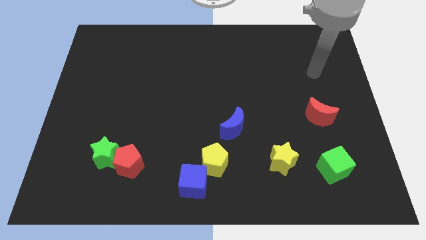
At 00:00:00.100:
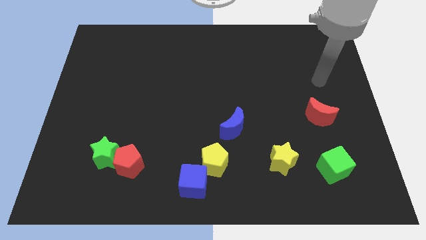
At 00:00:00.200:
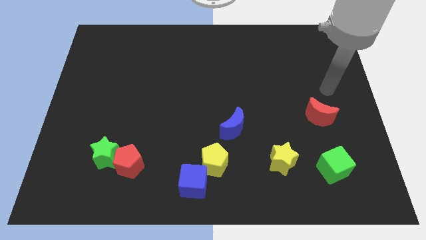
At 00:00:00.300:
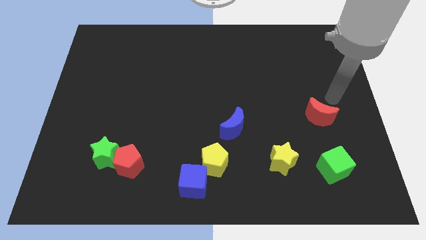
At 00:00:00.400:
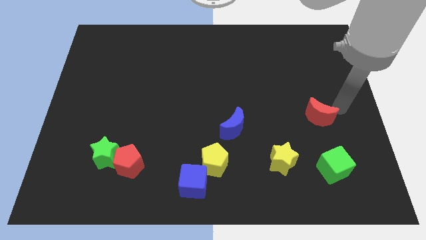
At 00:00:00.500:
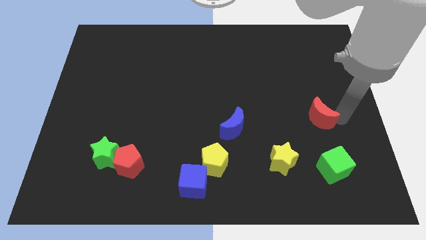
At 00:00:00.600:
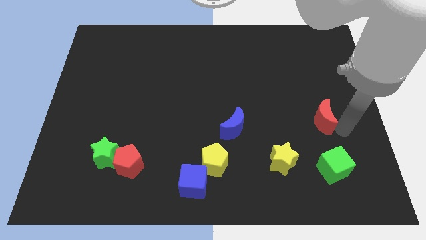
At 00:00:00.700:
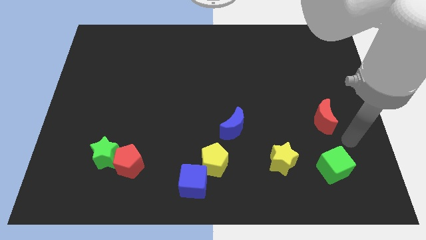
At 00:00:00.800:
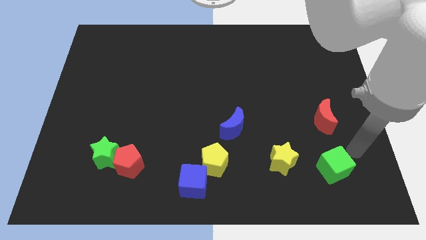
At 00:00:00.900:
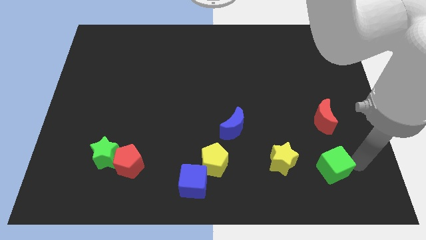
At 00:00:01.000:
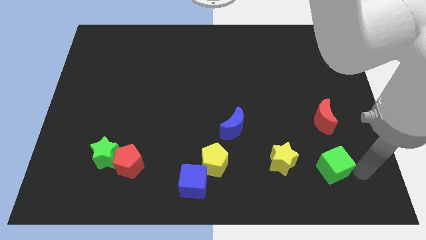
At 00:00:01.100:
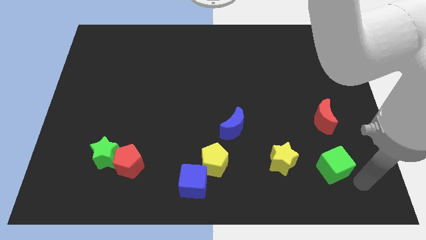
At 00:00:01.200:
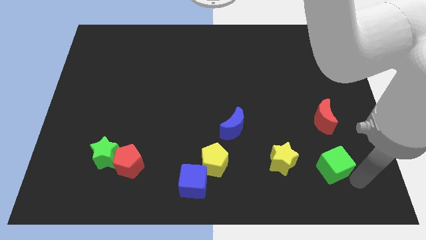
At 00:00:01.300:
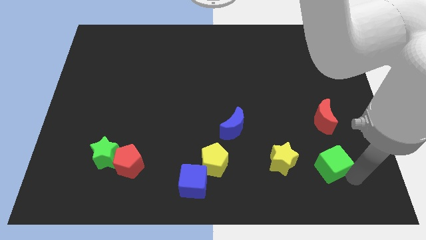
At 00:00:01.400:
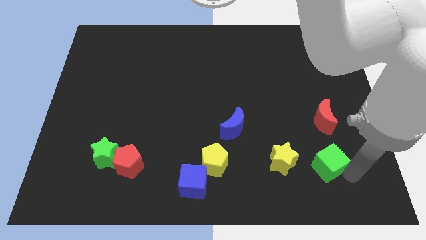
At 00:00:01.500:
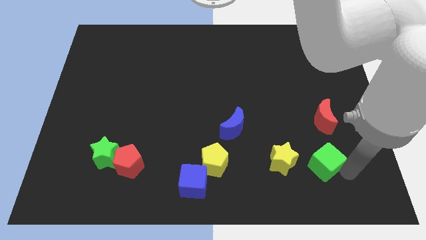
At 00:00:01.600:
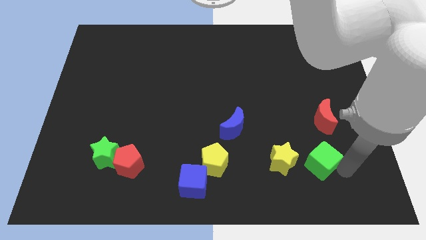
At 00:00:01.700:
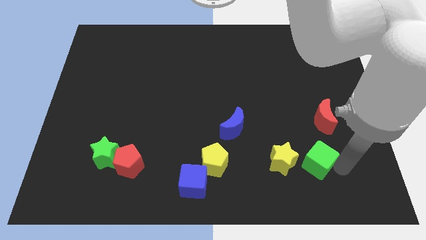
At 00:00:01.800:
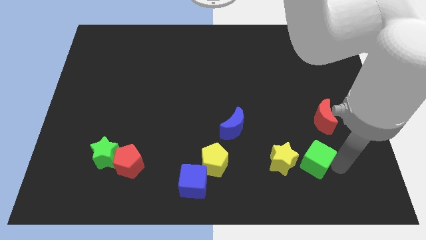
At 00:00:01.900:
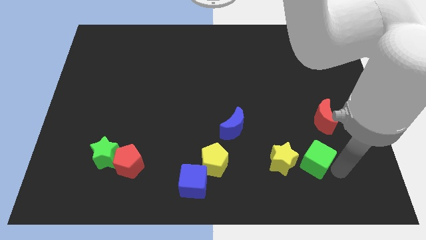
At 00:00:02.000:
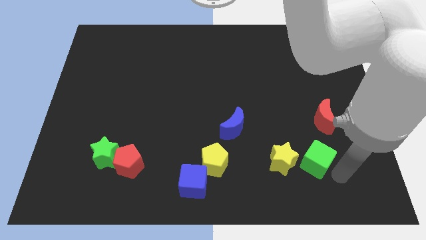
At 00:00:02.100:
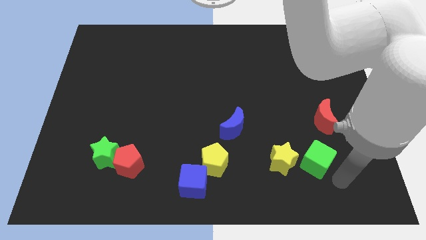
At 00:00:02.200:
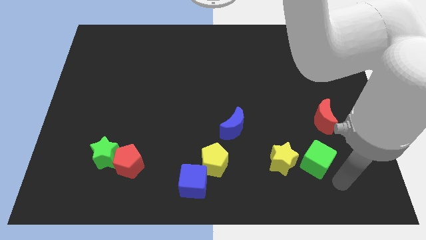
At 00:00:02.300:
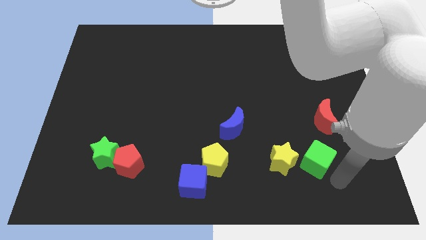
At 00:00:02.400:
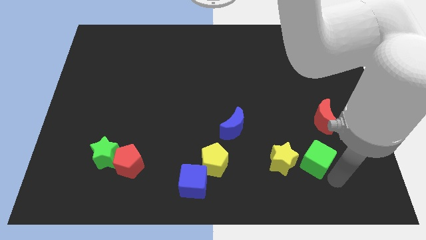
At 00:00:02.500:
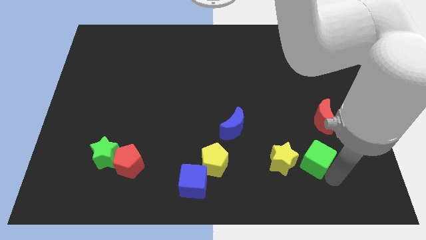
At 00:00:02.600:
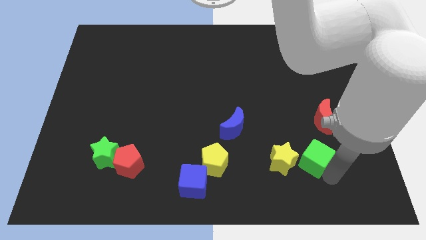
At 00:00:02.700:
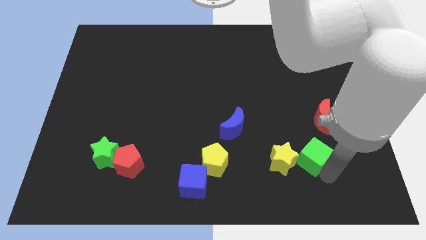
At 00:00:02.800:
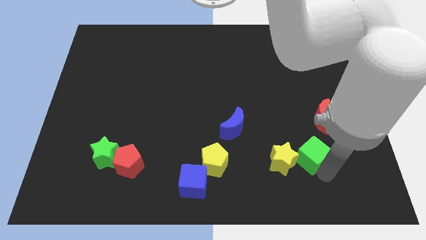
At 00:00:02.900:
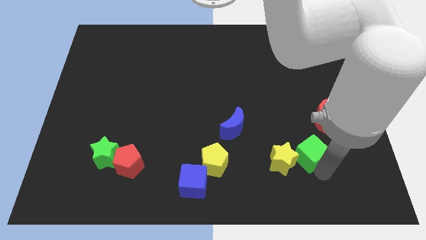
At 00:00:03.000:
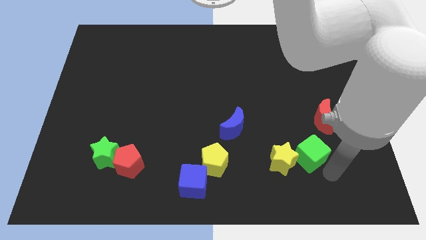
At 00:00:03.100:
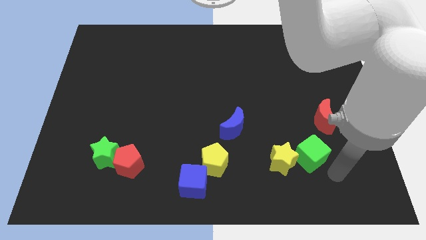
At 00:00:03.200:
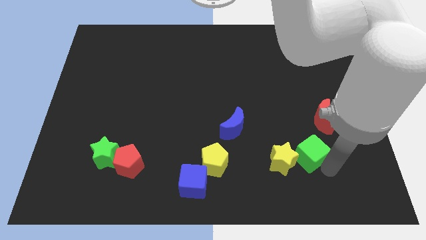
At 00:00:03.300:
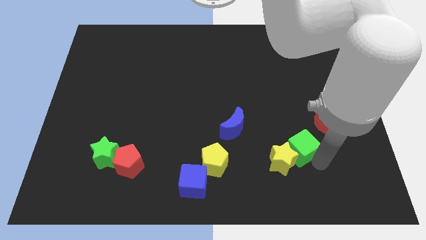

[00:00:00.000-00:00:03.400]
move the green cube slightly diagonally upwards and left

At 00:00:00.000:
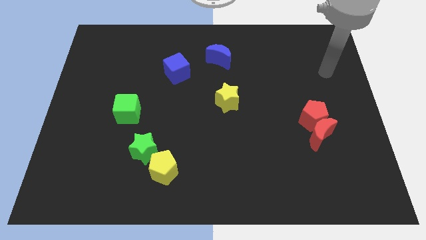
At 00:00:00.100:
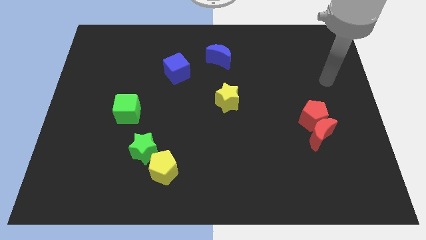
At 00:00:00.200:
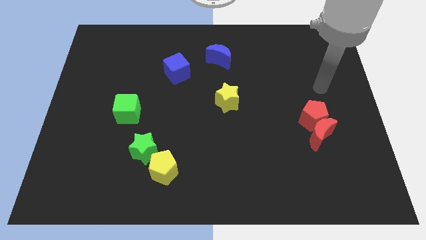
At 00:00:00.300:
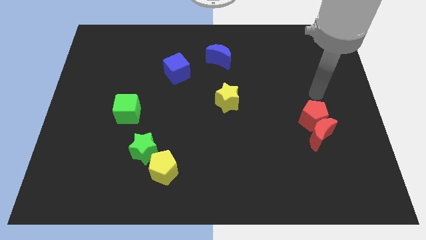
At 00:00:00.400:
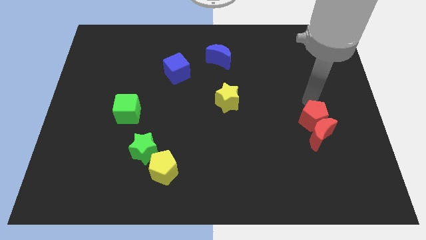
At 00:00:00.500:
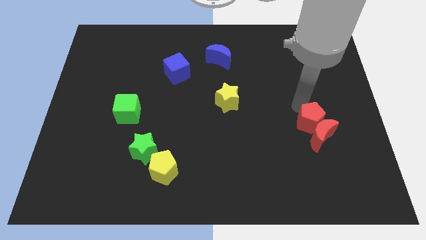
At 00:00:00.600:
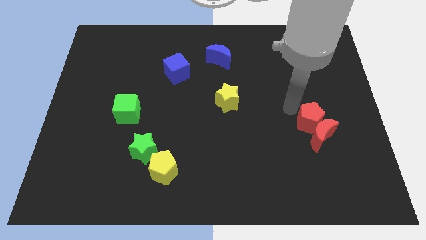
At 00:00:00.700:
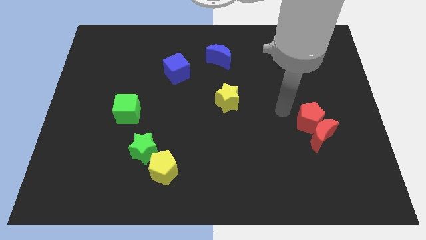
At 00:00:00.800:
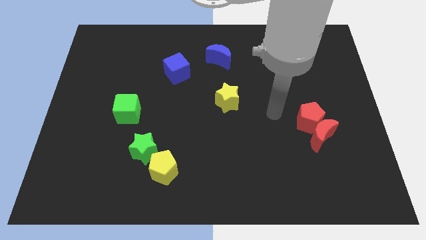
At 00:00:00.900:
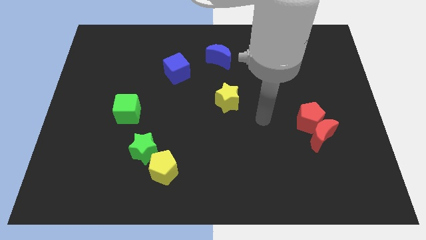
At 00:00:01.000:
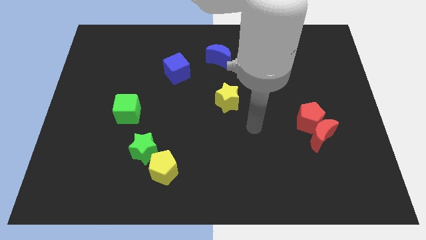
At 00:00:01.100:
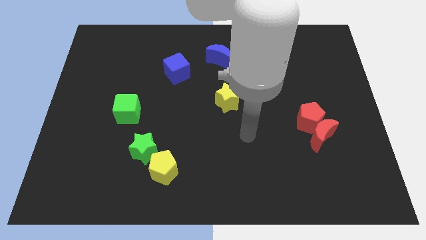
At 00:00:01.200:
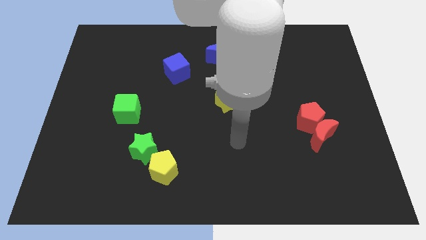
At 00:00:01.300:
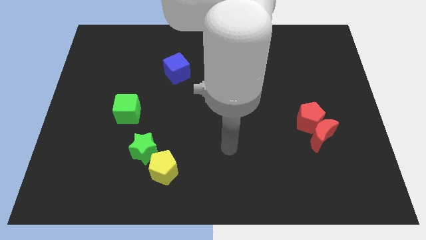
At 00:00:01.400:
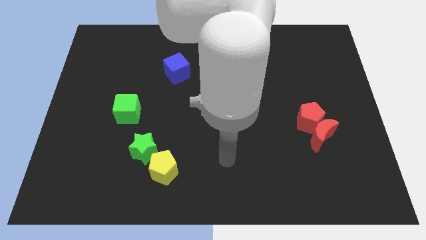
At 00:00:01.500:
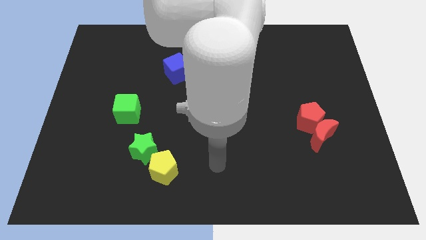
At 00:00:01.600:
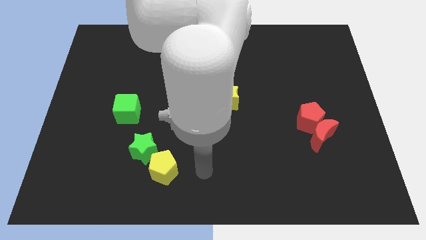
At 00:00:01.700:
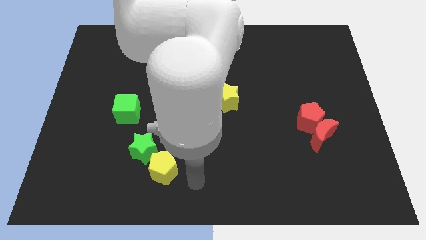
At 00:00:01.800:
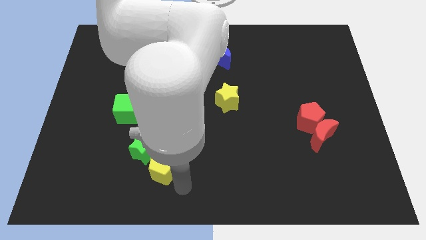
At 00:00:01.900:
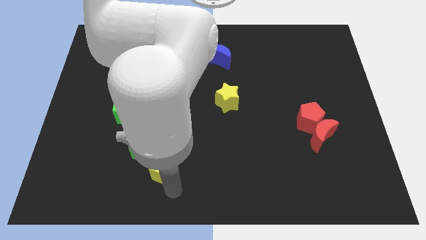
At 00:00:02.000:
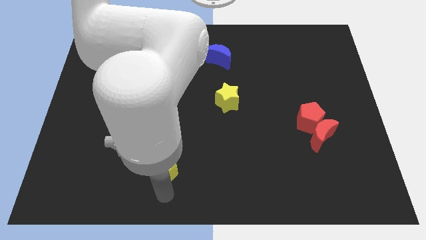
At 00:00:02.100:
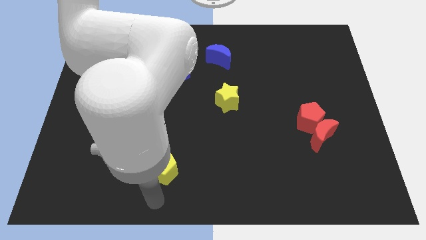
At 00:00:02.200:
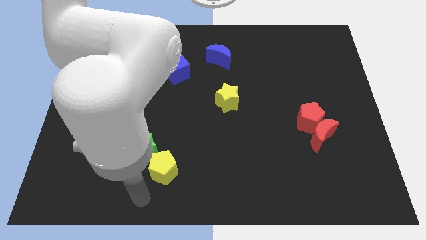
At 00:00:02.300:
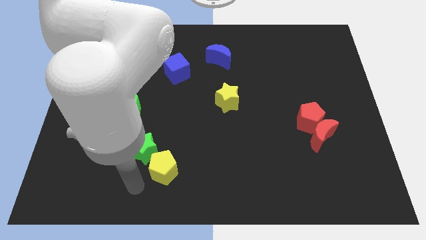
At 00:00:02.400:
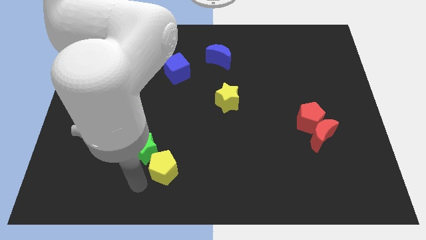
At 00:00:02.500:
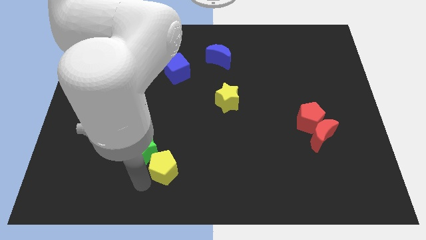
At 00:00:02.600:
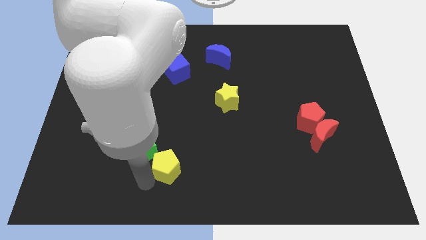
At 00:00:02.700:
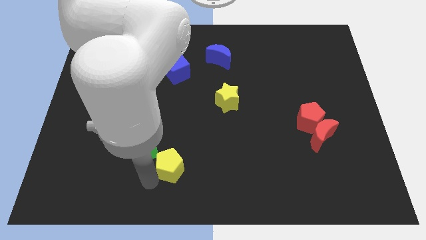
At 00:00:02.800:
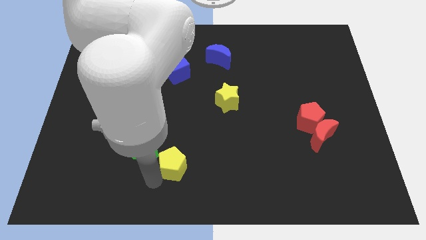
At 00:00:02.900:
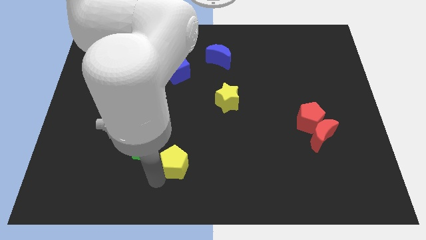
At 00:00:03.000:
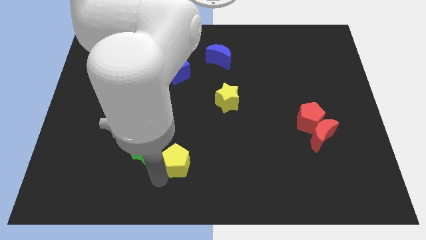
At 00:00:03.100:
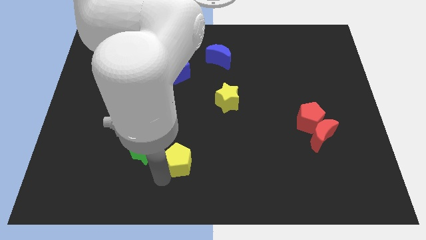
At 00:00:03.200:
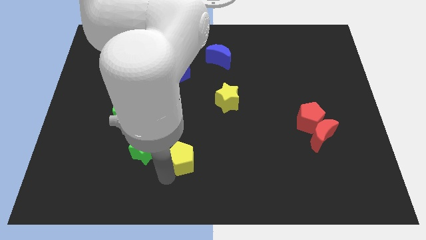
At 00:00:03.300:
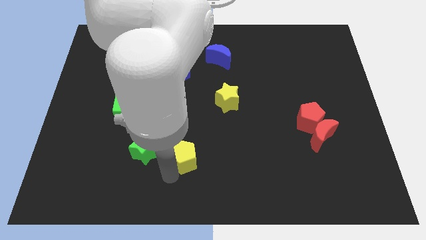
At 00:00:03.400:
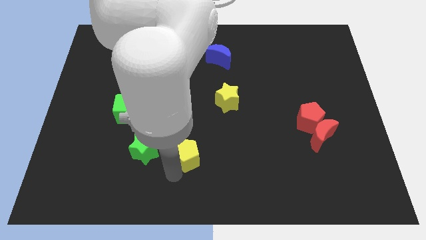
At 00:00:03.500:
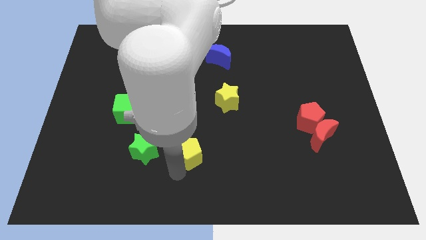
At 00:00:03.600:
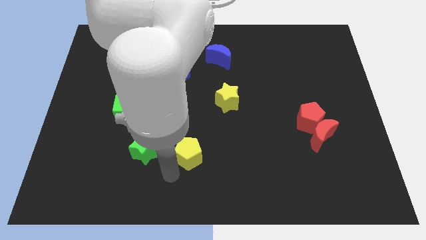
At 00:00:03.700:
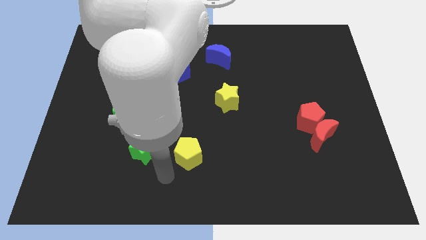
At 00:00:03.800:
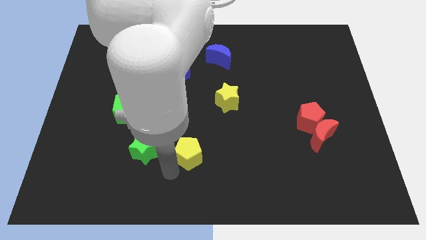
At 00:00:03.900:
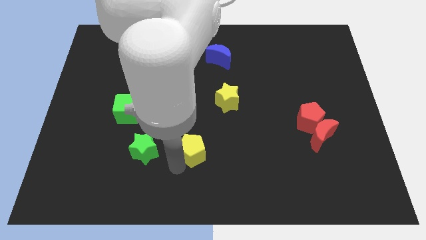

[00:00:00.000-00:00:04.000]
move the yellow pentagon a bit upwards and then to the right

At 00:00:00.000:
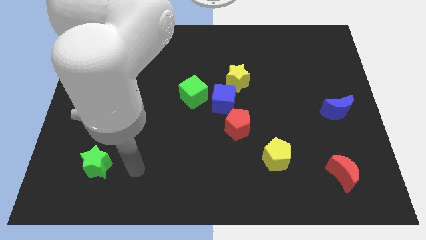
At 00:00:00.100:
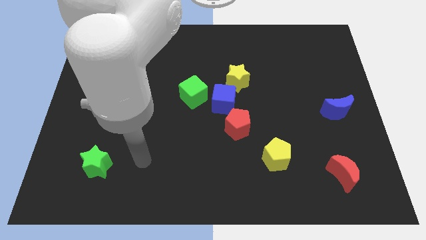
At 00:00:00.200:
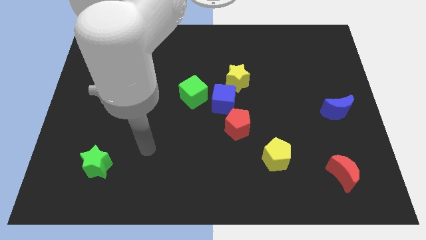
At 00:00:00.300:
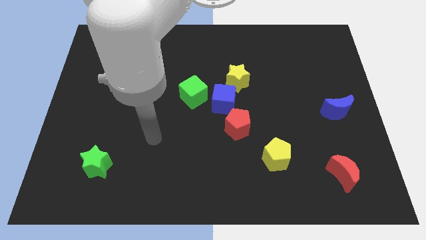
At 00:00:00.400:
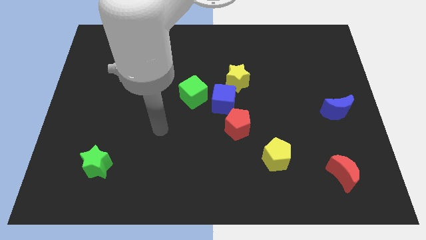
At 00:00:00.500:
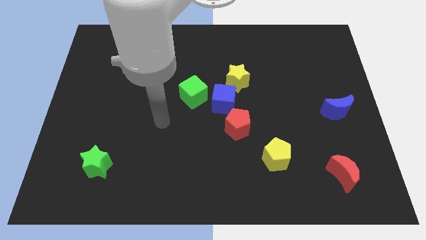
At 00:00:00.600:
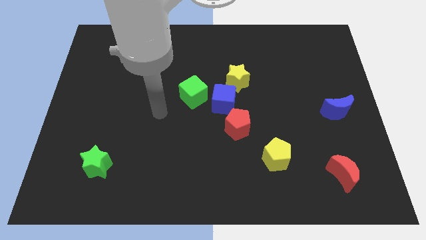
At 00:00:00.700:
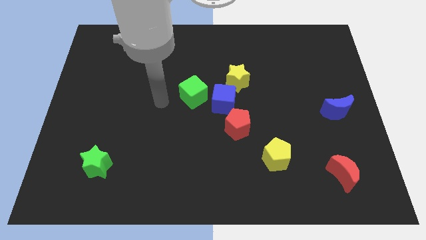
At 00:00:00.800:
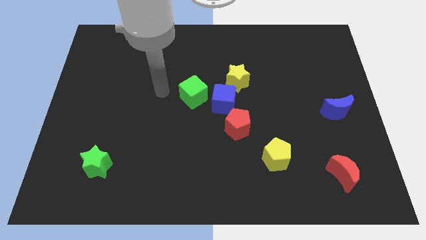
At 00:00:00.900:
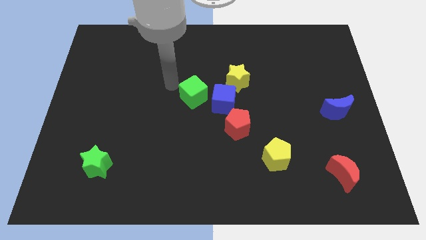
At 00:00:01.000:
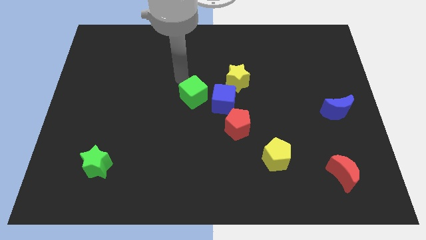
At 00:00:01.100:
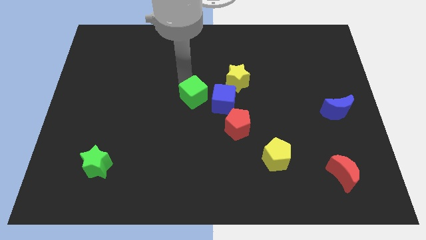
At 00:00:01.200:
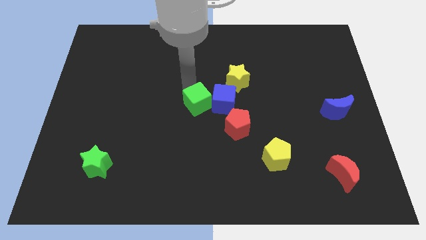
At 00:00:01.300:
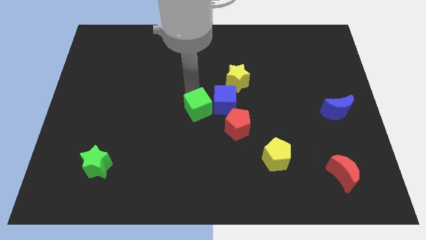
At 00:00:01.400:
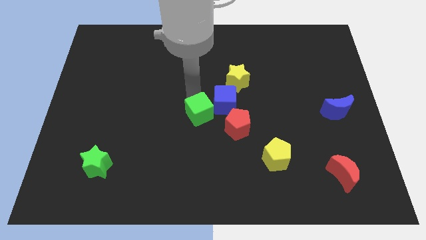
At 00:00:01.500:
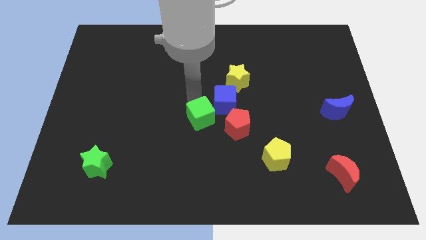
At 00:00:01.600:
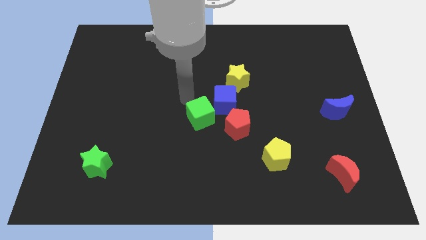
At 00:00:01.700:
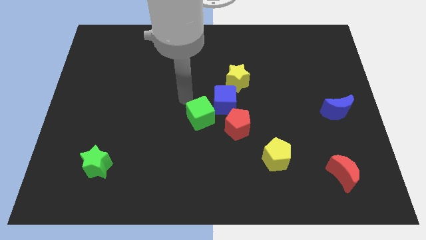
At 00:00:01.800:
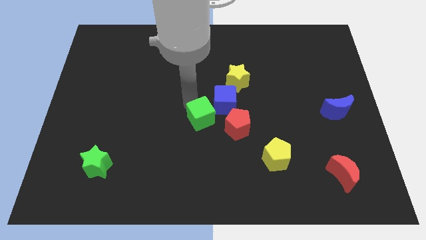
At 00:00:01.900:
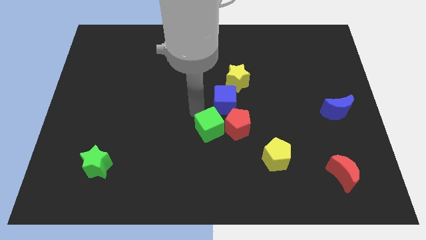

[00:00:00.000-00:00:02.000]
slide the green cube downwards and then to the right slightly
